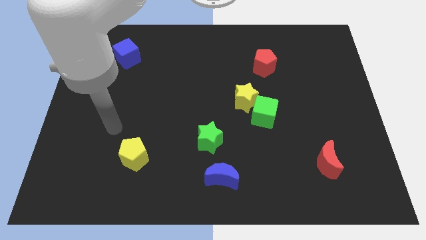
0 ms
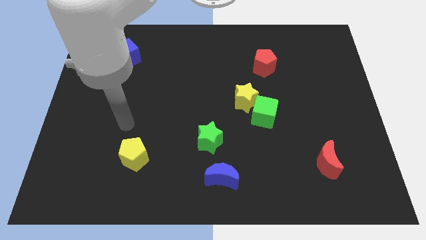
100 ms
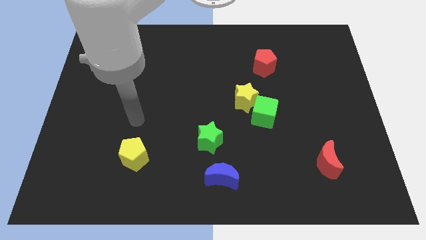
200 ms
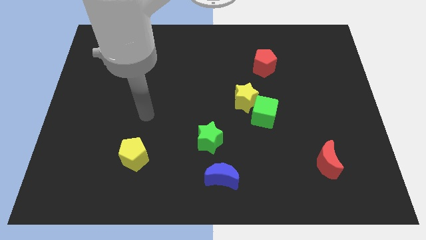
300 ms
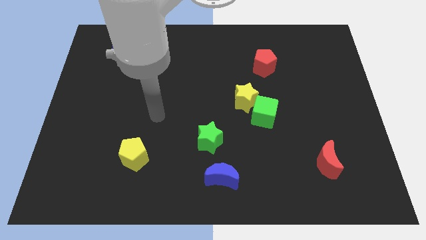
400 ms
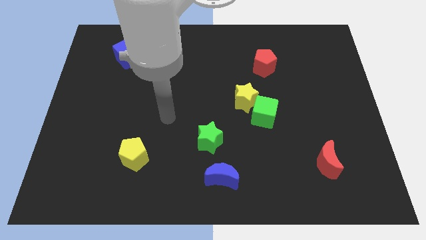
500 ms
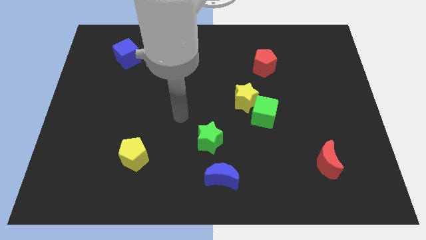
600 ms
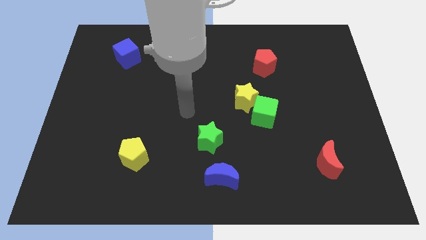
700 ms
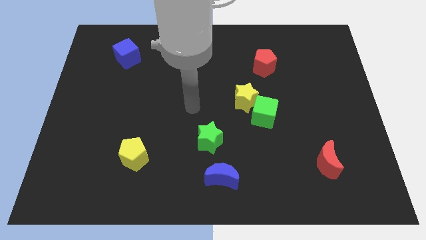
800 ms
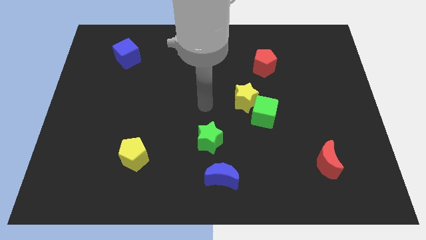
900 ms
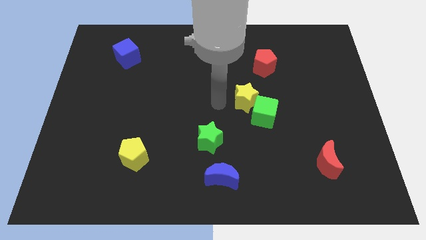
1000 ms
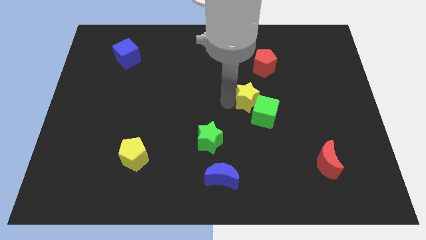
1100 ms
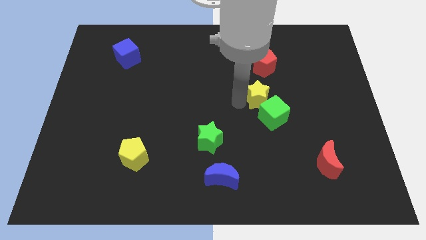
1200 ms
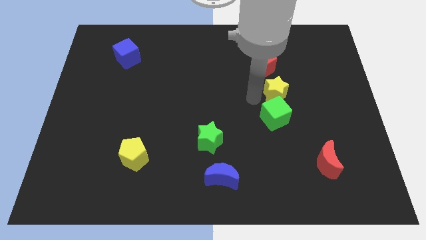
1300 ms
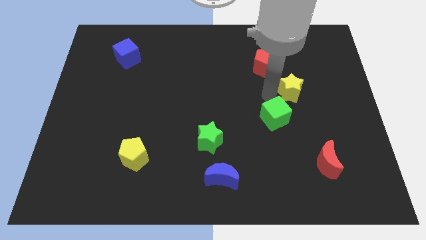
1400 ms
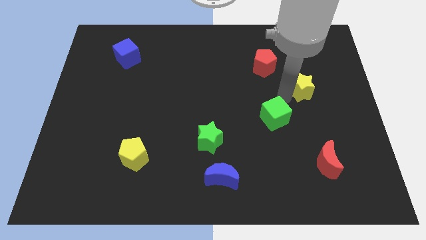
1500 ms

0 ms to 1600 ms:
separate the green cube from the yellow star

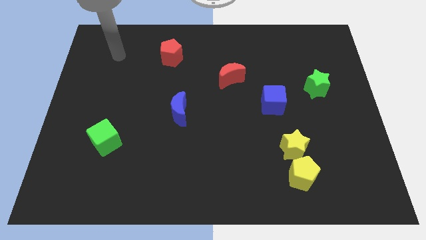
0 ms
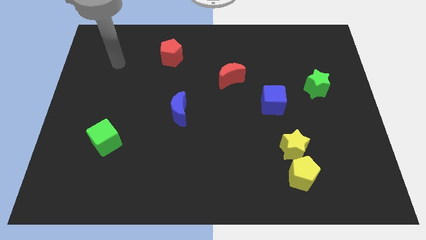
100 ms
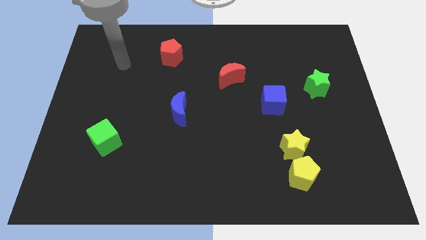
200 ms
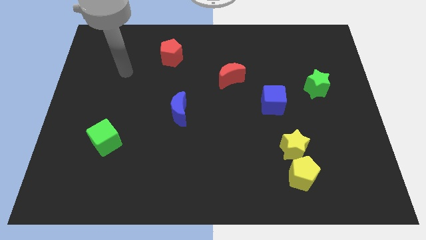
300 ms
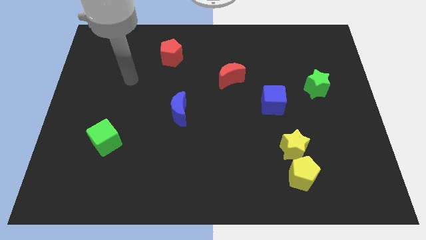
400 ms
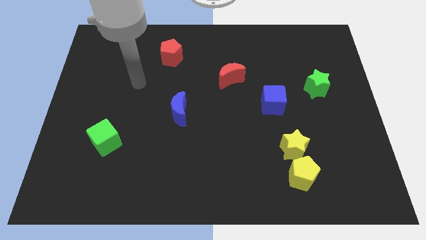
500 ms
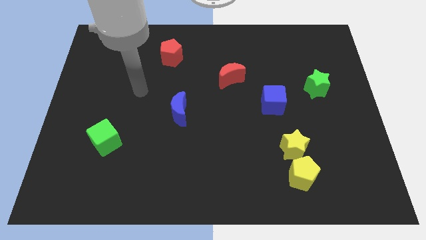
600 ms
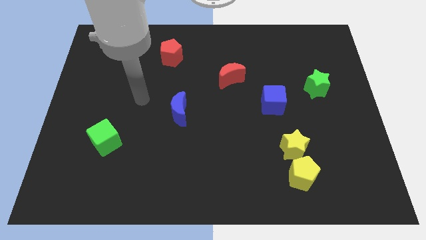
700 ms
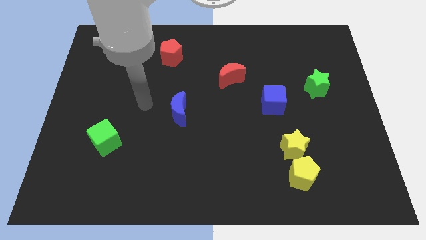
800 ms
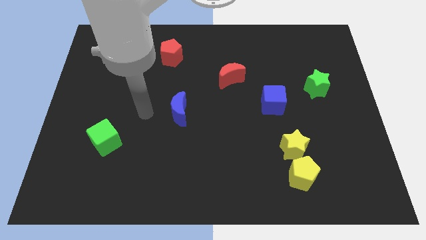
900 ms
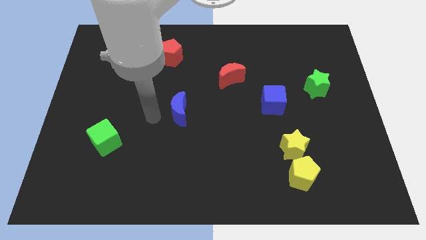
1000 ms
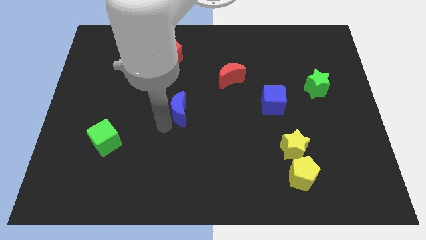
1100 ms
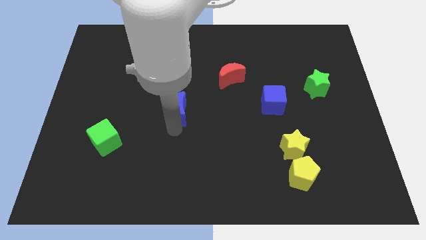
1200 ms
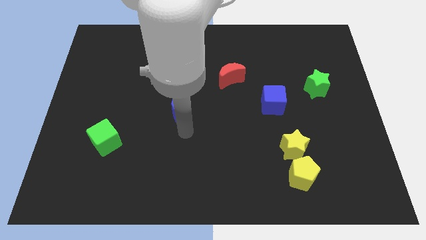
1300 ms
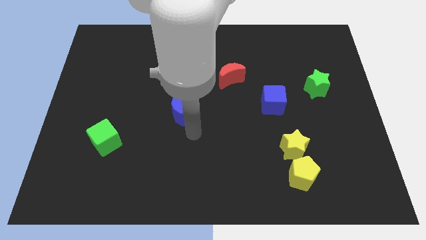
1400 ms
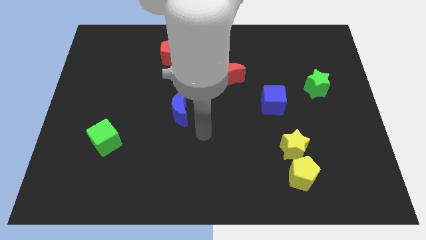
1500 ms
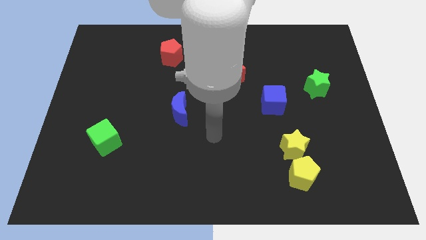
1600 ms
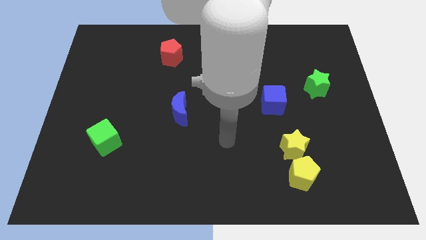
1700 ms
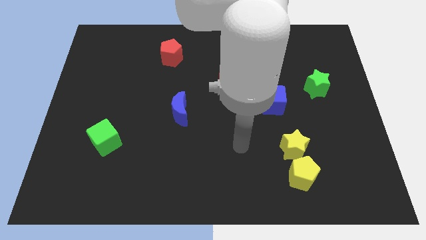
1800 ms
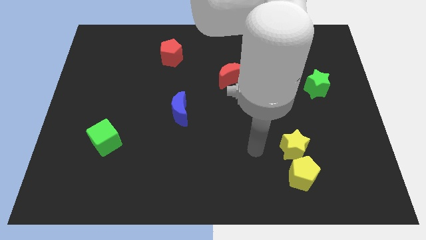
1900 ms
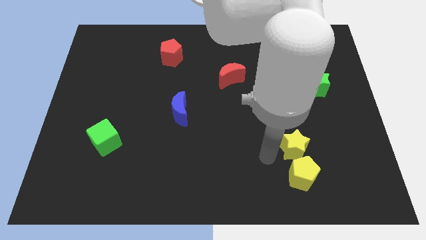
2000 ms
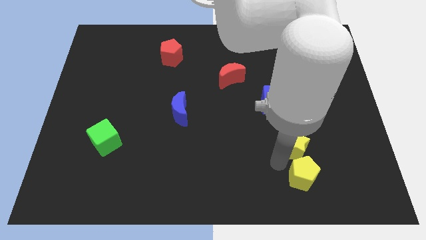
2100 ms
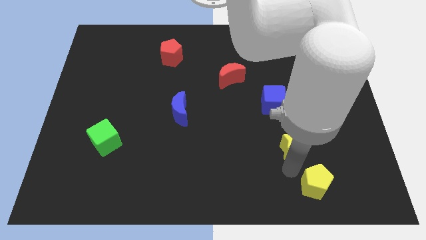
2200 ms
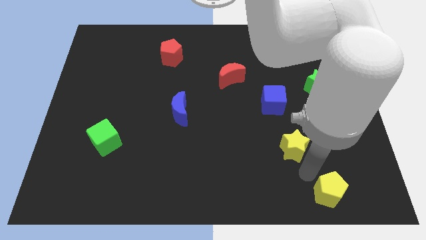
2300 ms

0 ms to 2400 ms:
separate the yellow star from the yellow pentagon

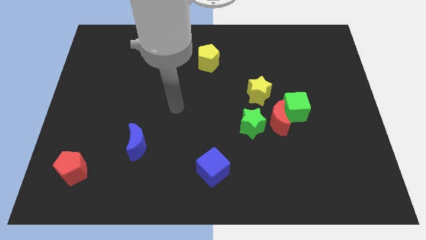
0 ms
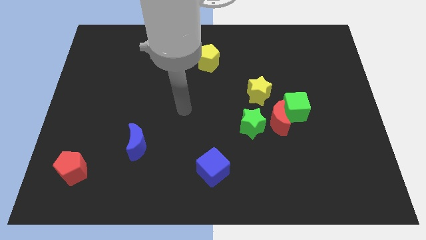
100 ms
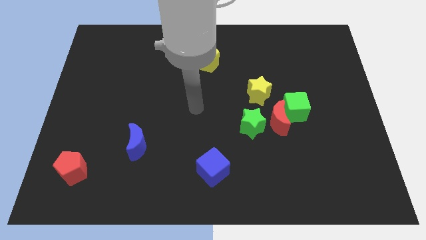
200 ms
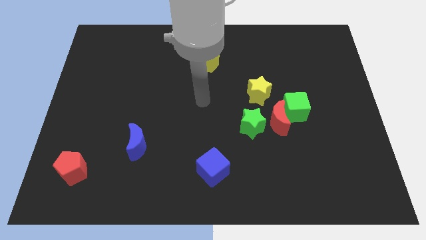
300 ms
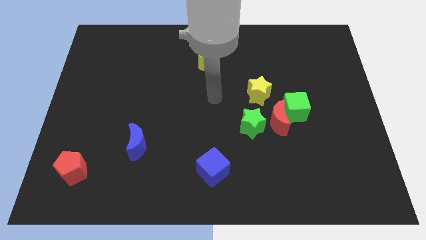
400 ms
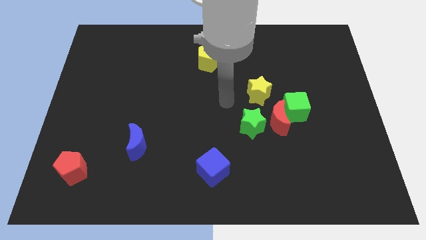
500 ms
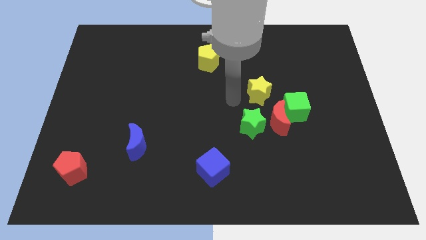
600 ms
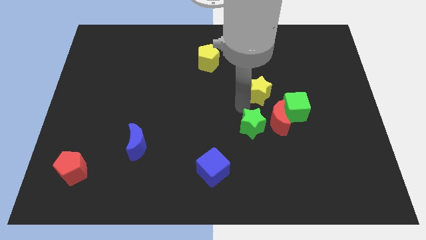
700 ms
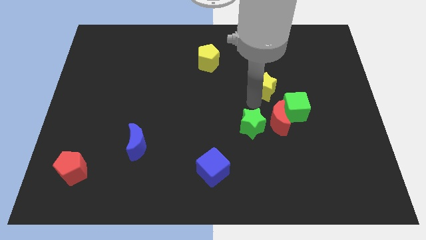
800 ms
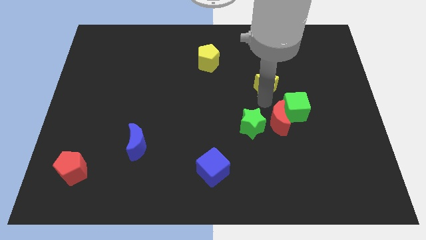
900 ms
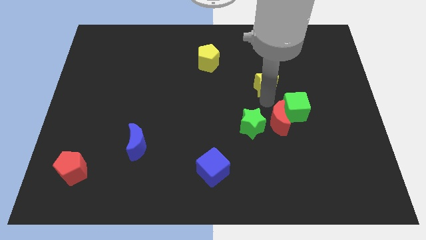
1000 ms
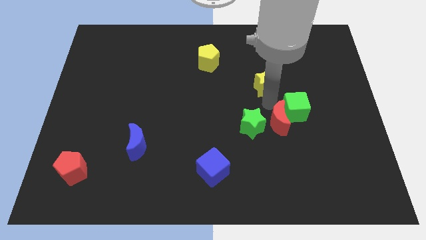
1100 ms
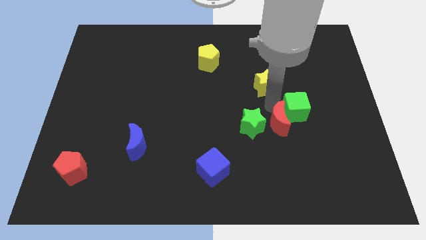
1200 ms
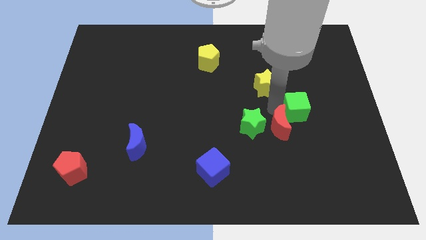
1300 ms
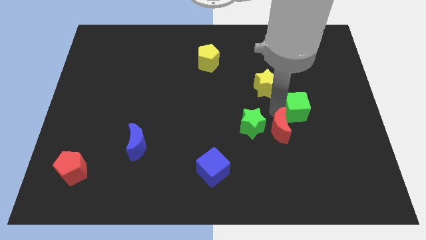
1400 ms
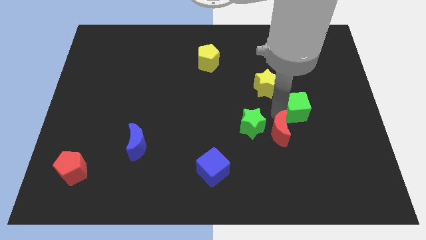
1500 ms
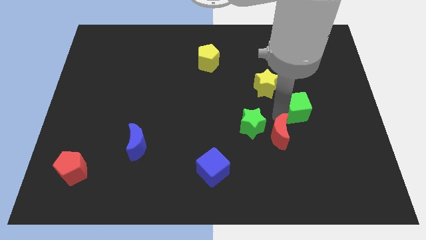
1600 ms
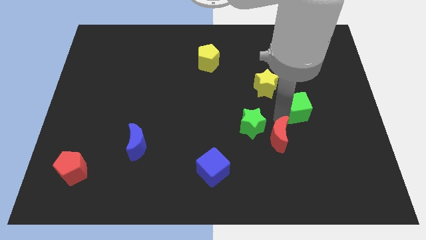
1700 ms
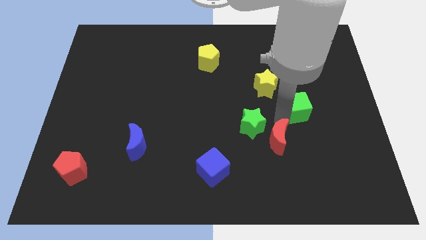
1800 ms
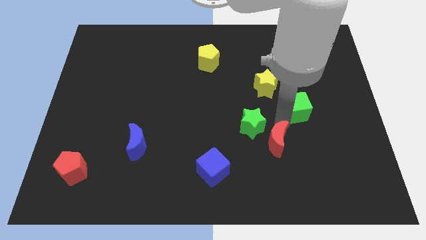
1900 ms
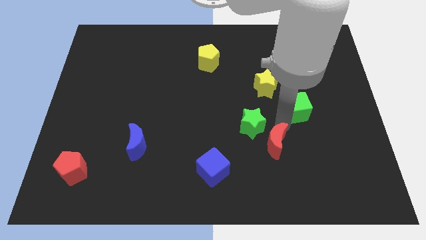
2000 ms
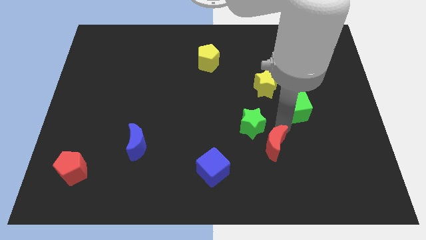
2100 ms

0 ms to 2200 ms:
separate the red moon from the green cube, green star, and yellow star

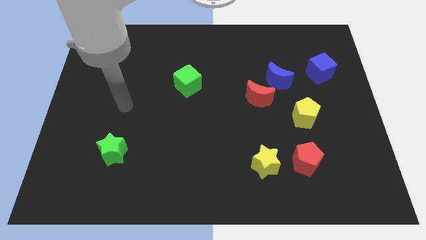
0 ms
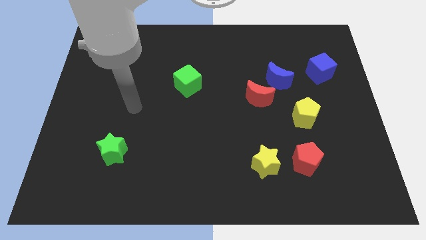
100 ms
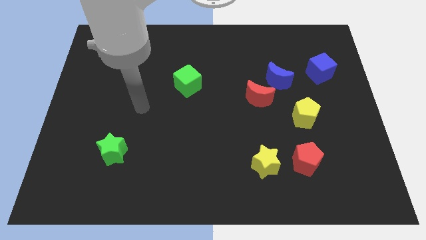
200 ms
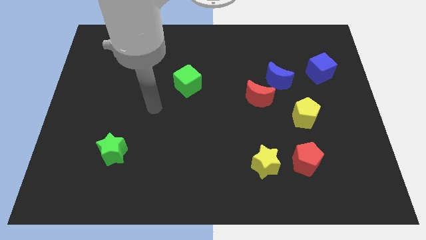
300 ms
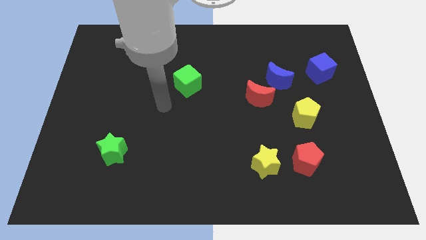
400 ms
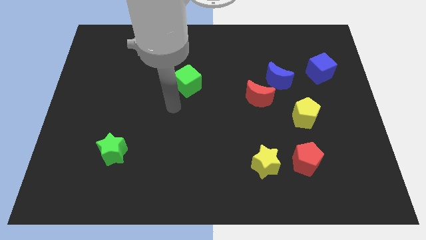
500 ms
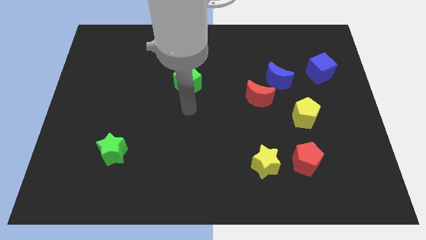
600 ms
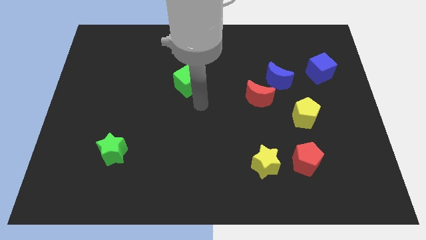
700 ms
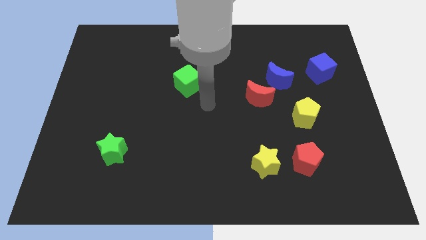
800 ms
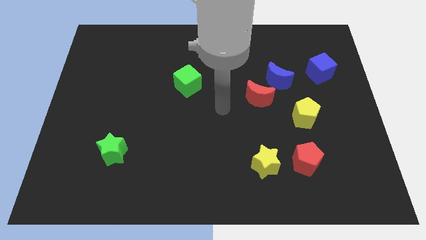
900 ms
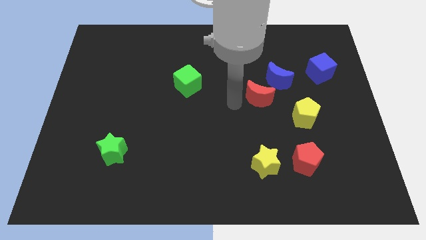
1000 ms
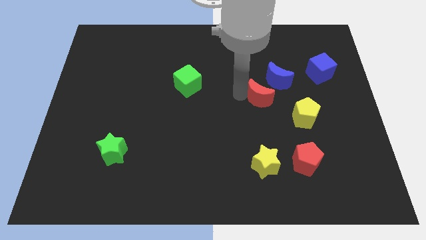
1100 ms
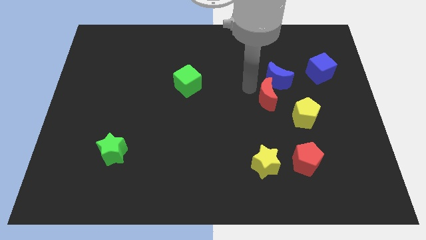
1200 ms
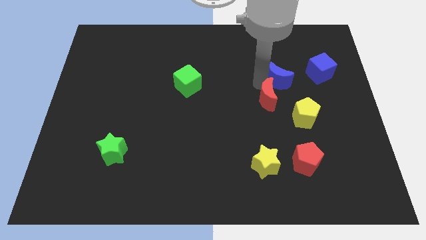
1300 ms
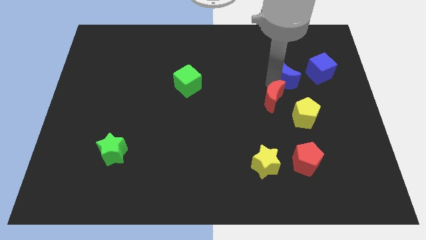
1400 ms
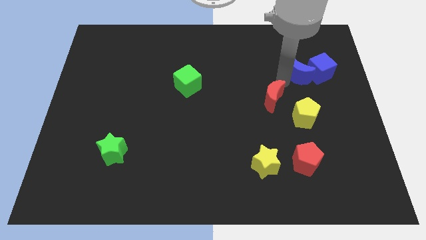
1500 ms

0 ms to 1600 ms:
move the red moon away from the blue moon

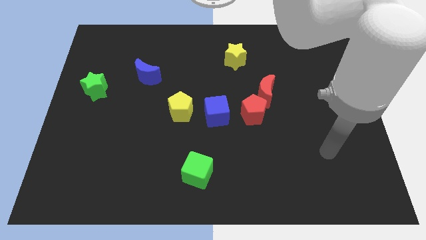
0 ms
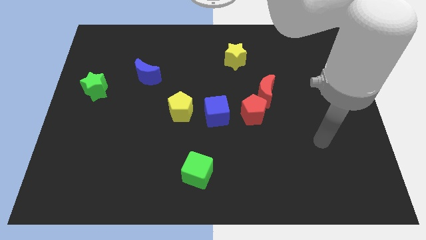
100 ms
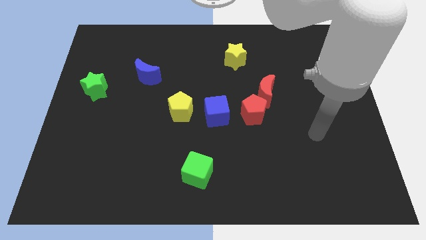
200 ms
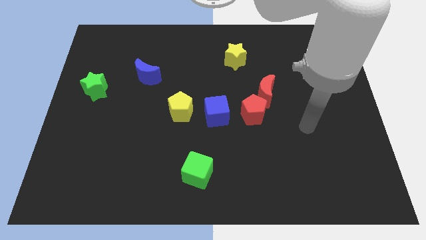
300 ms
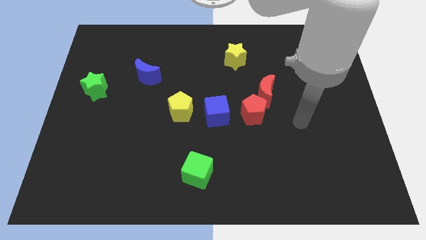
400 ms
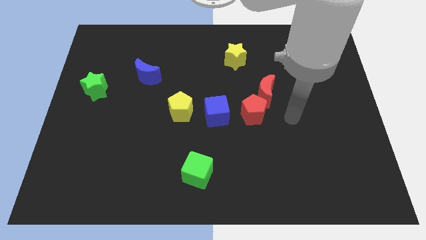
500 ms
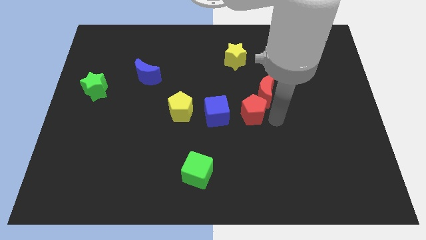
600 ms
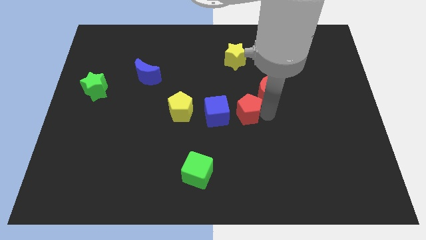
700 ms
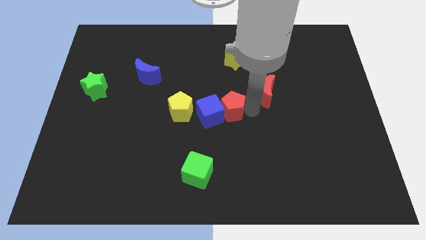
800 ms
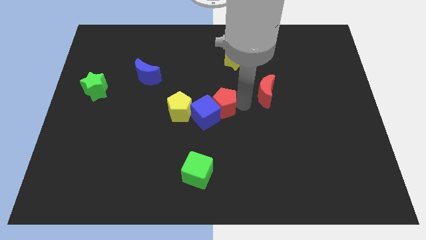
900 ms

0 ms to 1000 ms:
pull the red moon apart from the red pentagon

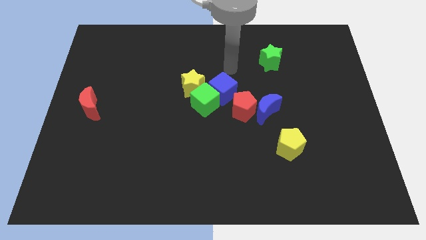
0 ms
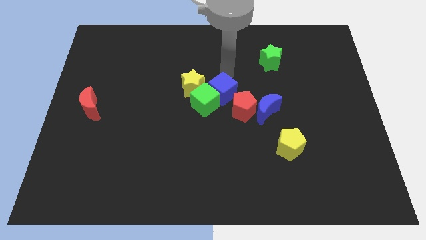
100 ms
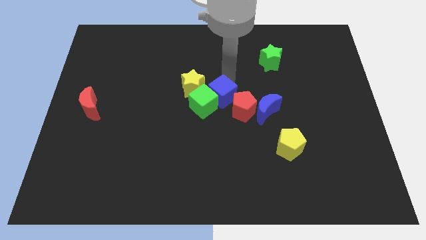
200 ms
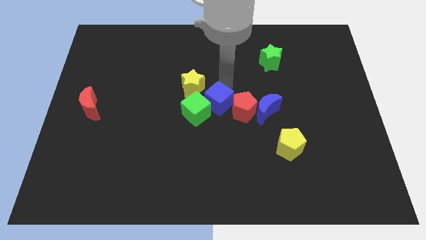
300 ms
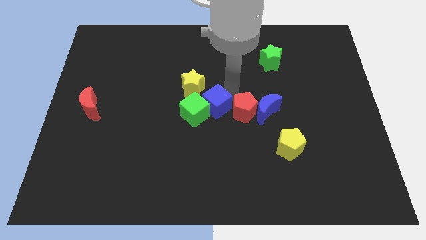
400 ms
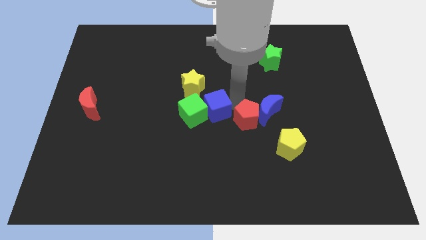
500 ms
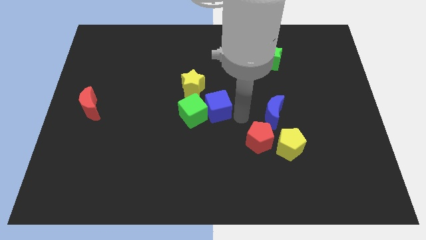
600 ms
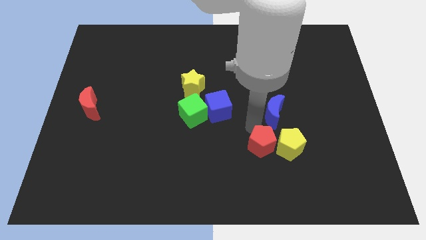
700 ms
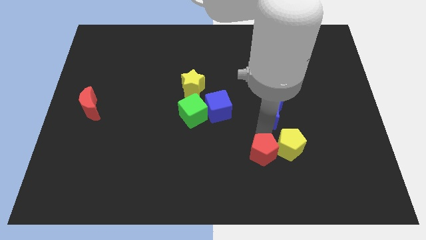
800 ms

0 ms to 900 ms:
pull the blue moon apart from the red pentagon
